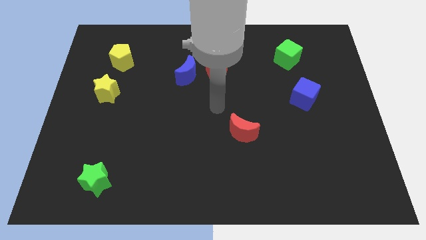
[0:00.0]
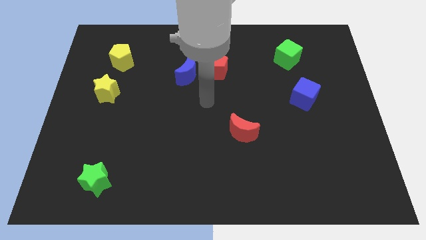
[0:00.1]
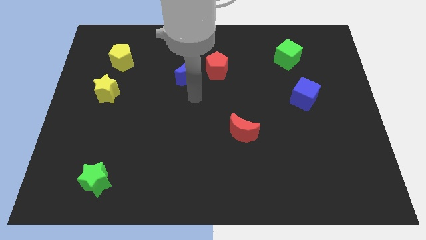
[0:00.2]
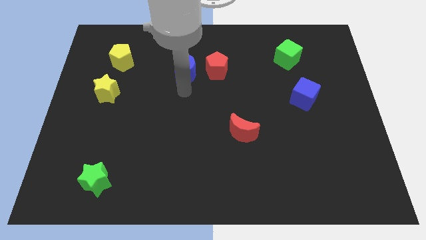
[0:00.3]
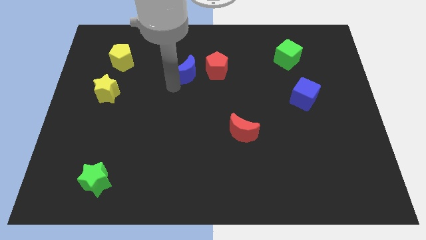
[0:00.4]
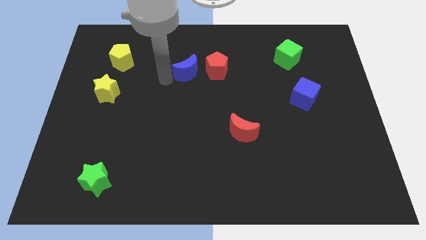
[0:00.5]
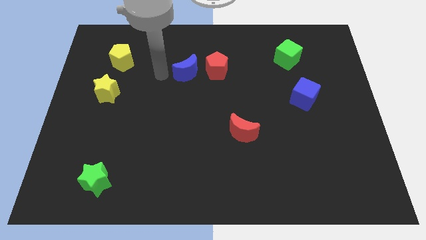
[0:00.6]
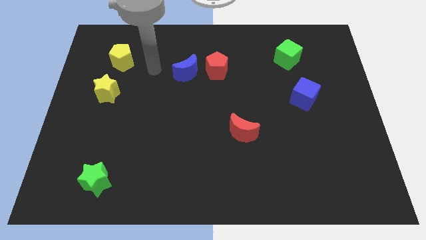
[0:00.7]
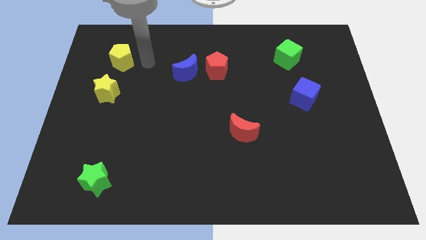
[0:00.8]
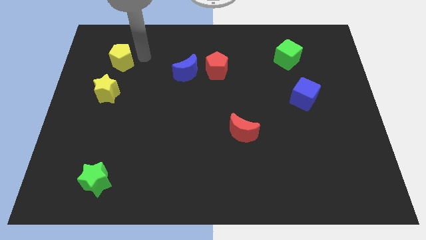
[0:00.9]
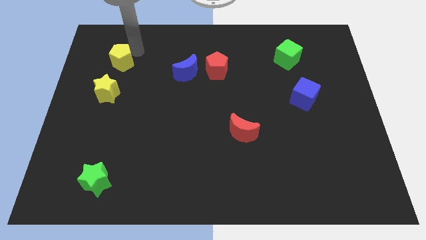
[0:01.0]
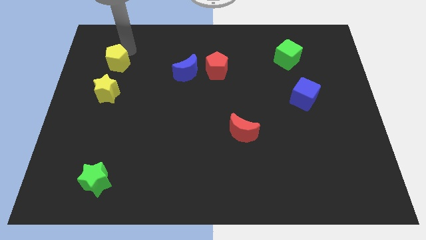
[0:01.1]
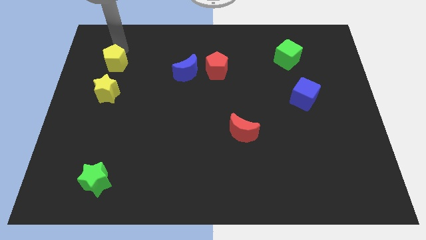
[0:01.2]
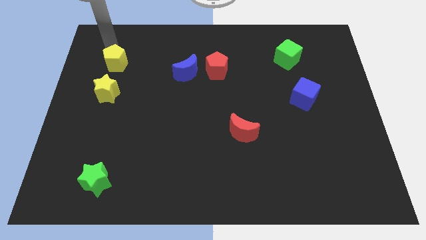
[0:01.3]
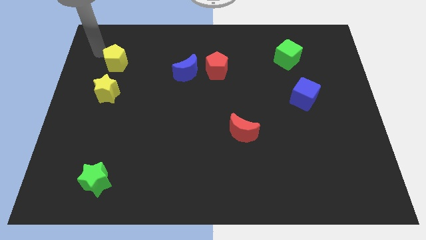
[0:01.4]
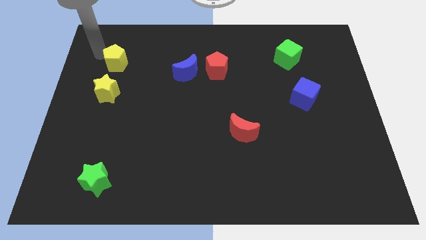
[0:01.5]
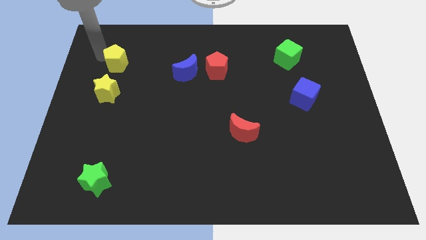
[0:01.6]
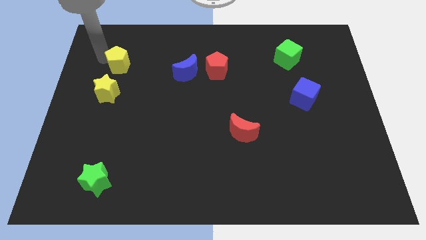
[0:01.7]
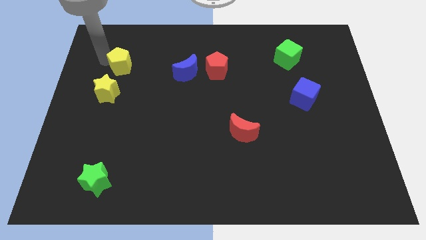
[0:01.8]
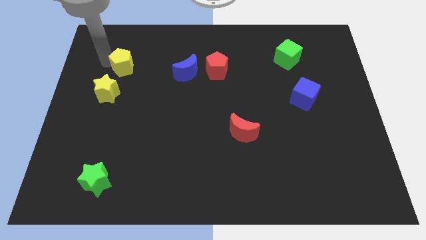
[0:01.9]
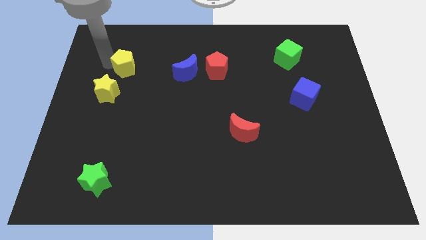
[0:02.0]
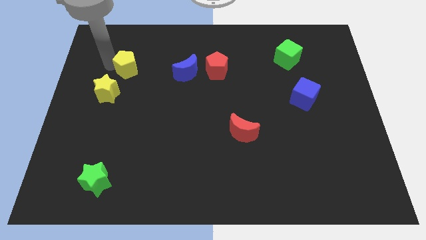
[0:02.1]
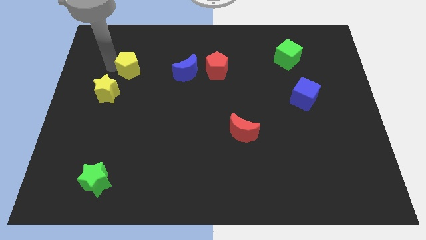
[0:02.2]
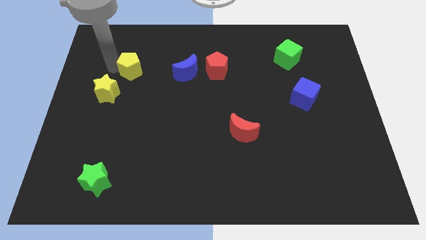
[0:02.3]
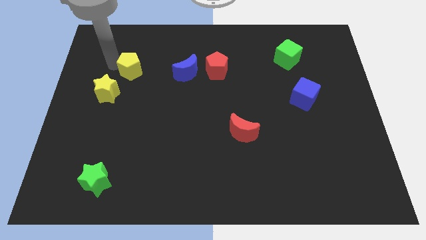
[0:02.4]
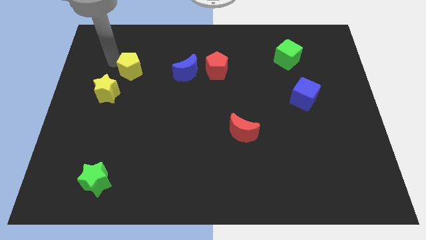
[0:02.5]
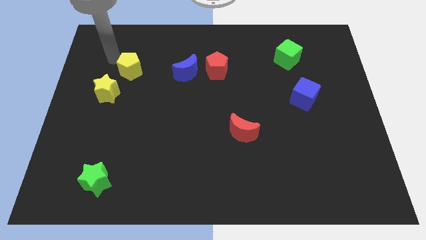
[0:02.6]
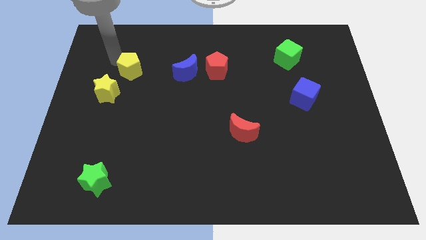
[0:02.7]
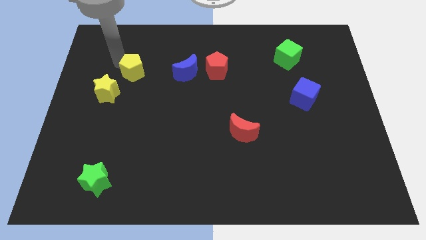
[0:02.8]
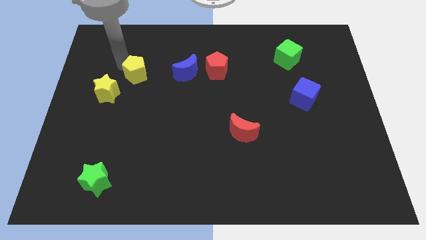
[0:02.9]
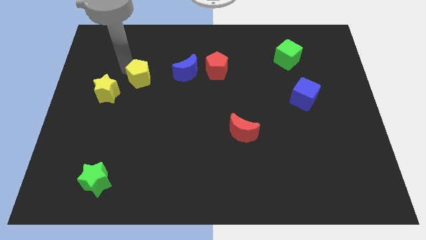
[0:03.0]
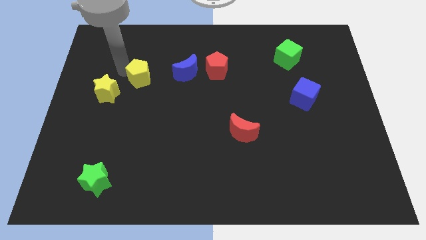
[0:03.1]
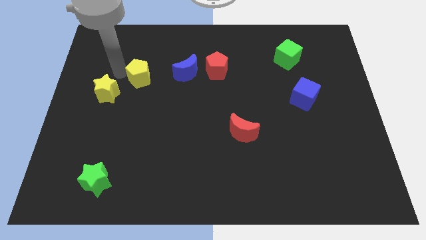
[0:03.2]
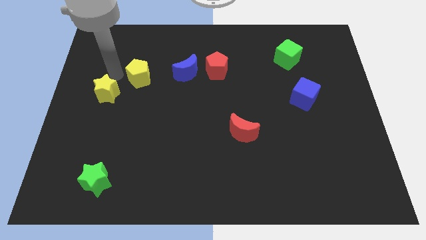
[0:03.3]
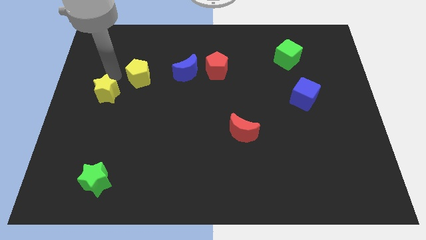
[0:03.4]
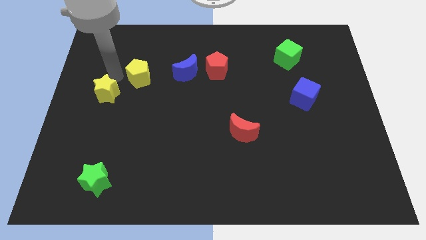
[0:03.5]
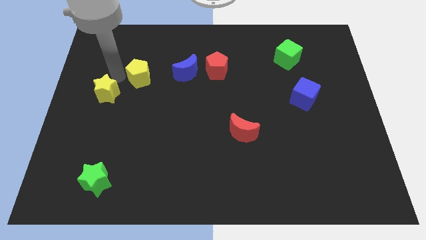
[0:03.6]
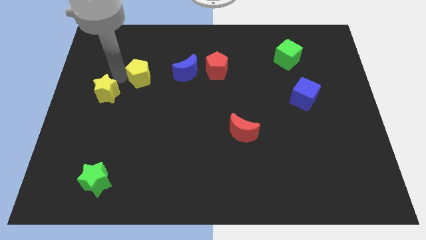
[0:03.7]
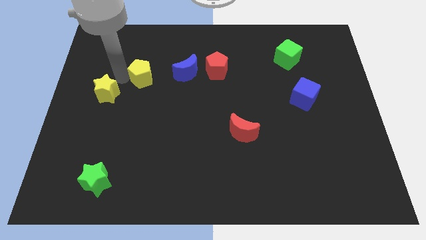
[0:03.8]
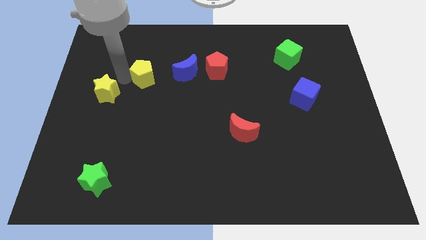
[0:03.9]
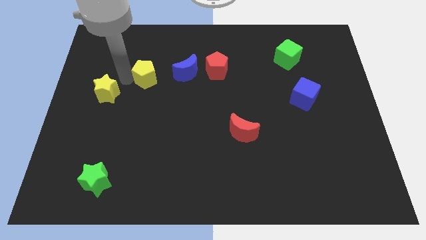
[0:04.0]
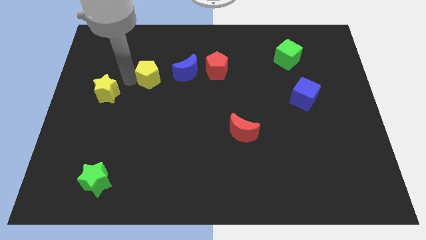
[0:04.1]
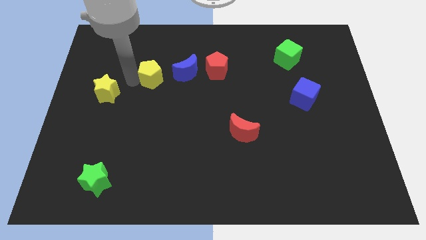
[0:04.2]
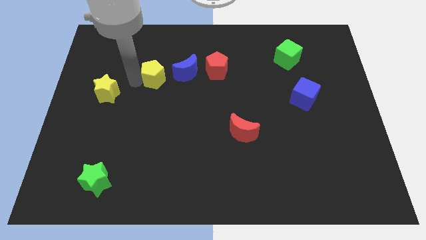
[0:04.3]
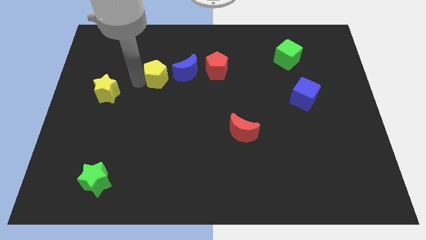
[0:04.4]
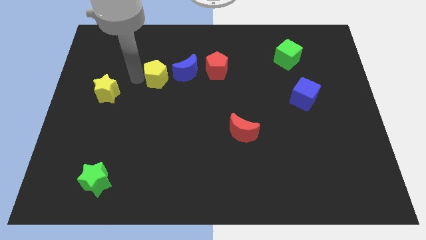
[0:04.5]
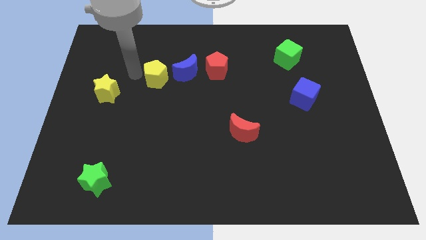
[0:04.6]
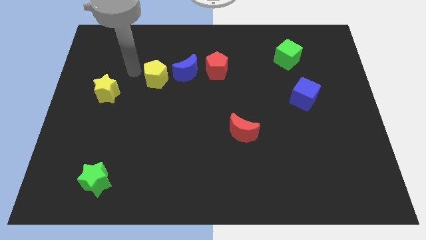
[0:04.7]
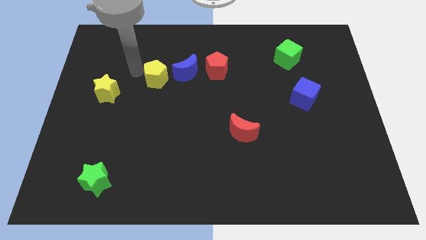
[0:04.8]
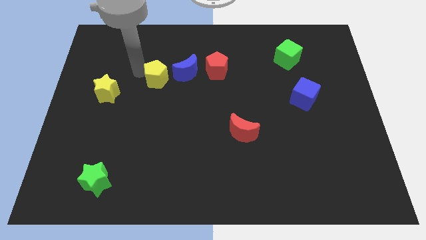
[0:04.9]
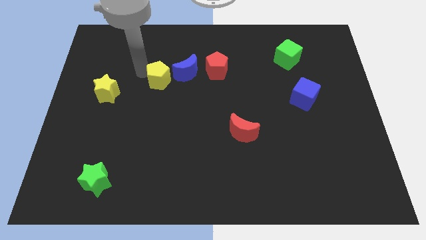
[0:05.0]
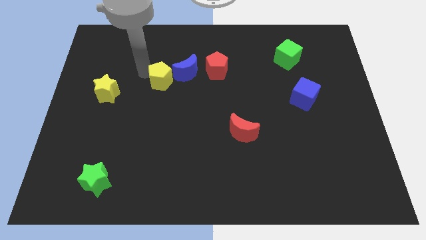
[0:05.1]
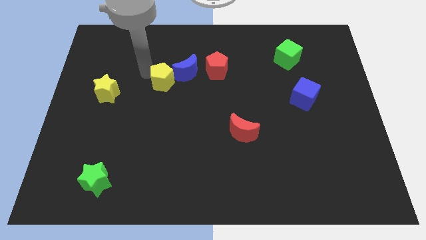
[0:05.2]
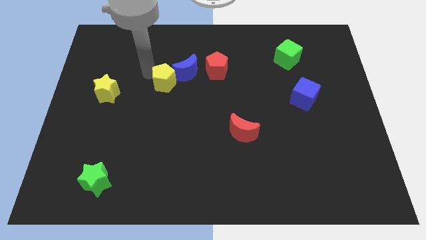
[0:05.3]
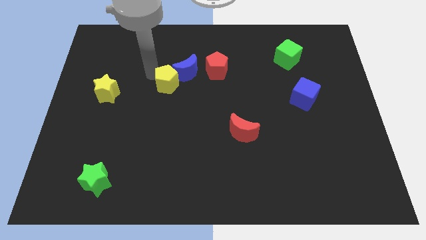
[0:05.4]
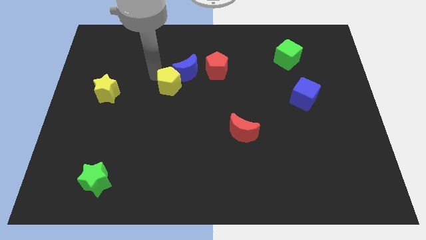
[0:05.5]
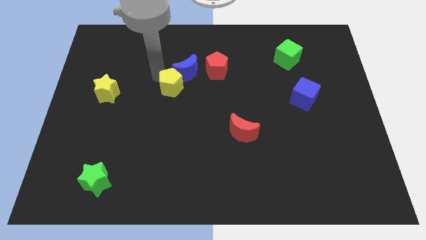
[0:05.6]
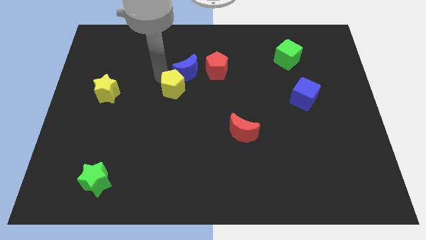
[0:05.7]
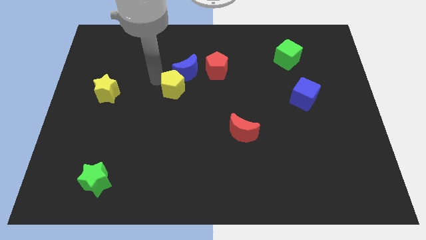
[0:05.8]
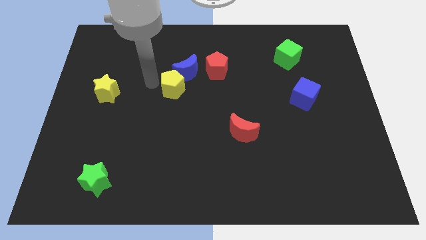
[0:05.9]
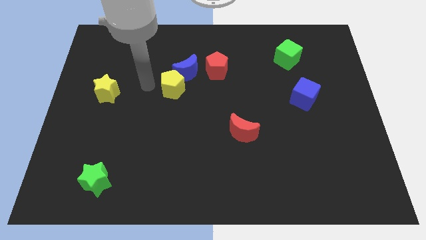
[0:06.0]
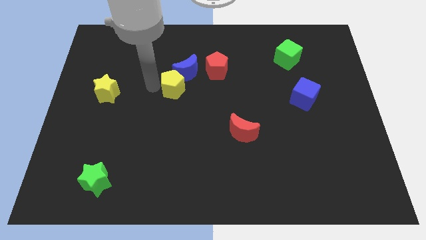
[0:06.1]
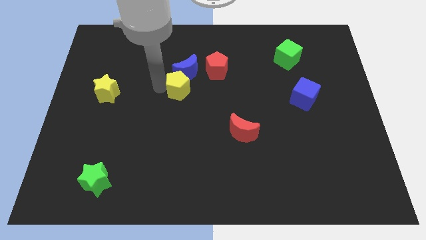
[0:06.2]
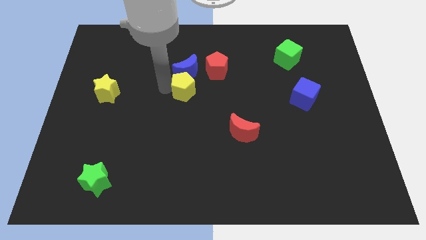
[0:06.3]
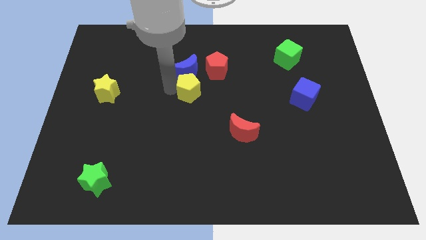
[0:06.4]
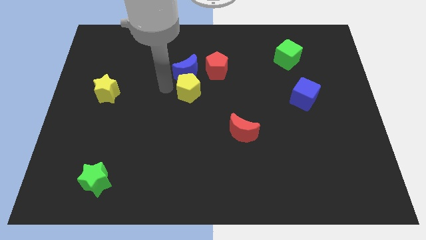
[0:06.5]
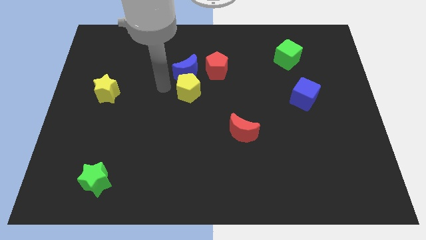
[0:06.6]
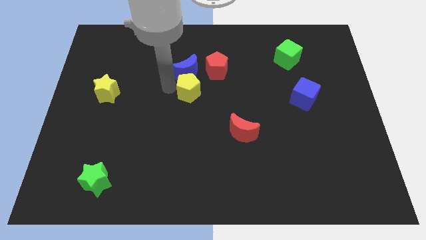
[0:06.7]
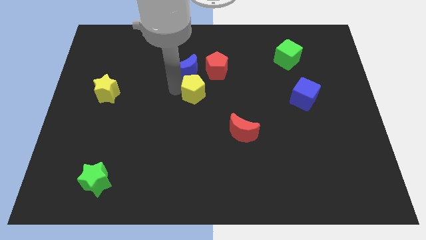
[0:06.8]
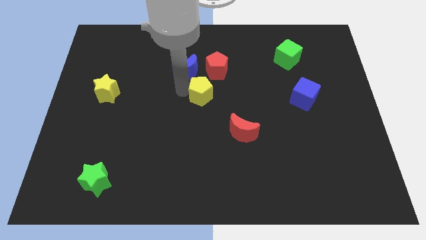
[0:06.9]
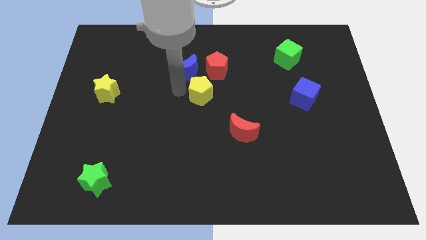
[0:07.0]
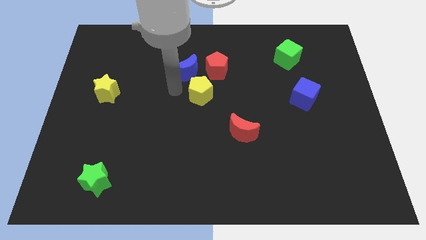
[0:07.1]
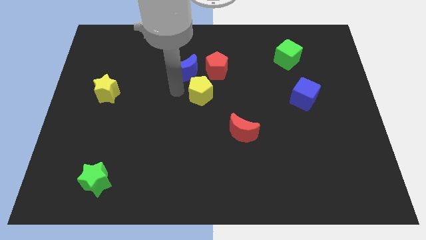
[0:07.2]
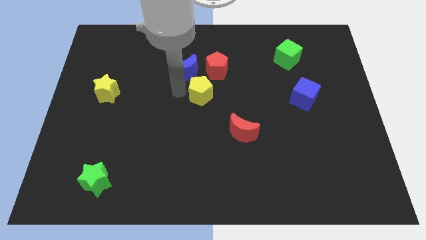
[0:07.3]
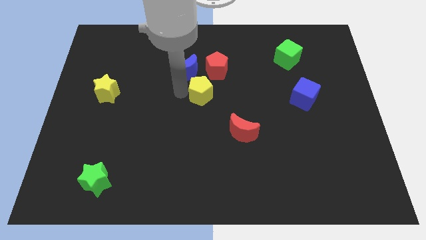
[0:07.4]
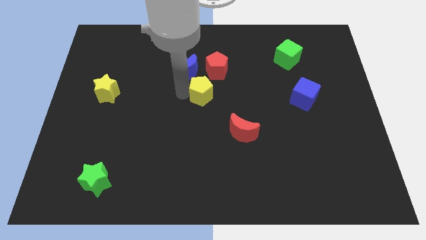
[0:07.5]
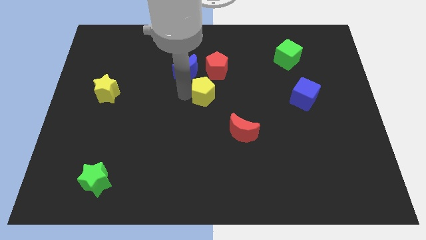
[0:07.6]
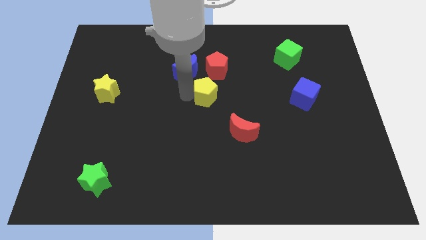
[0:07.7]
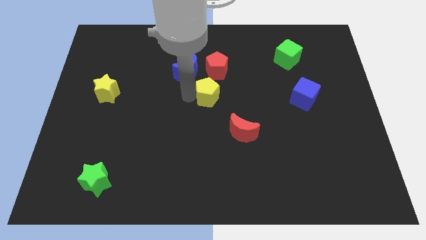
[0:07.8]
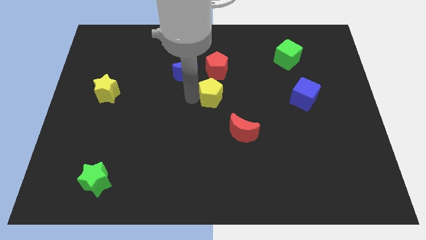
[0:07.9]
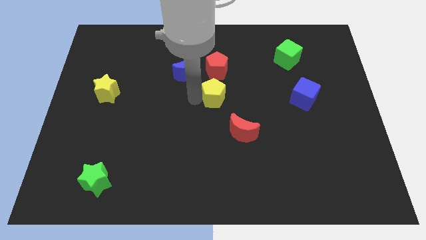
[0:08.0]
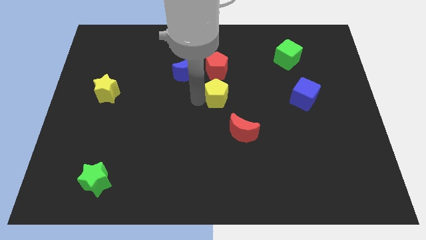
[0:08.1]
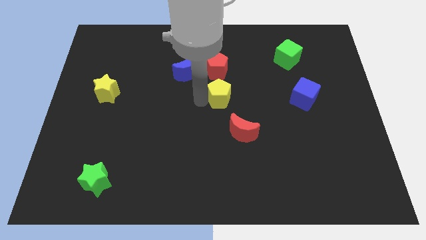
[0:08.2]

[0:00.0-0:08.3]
put the yellow pentagon to the top of the red moon
